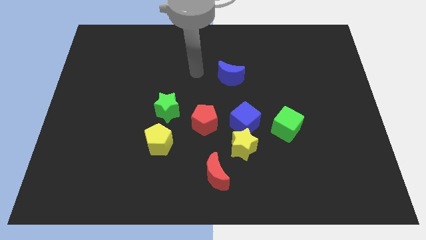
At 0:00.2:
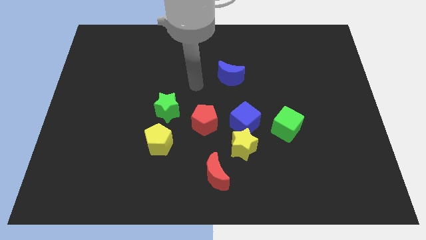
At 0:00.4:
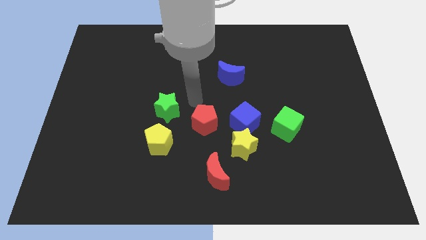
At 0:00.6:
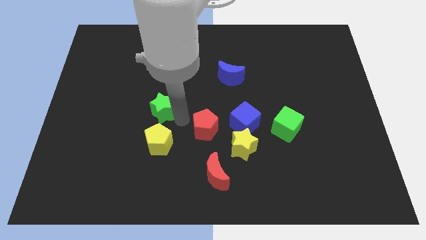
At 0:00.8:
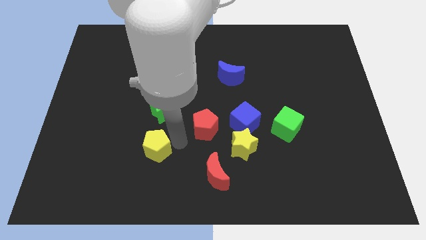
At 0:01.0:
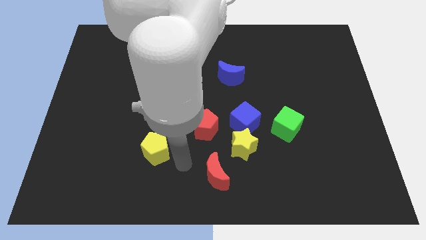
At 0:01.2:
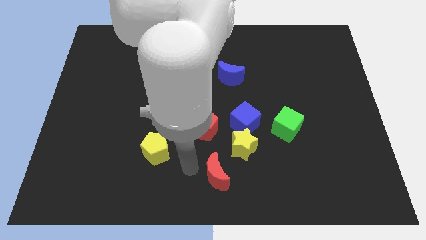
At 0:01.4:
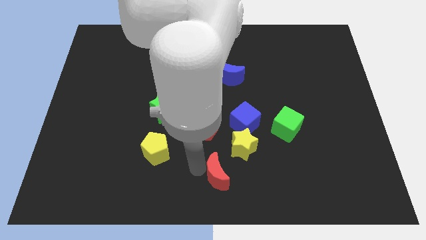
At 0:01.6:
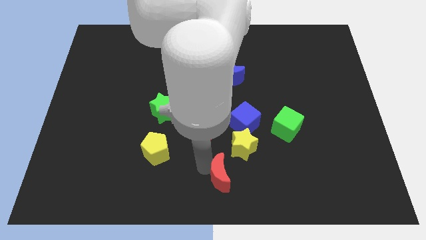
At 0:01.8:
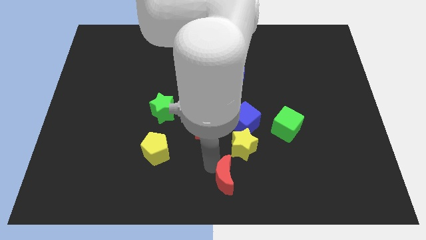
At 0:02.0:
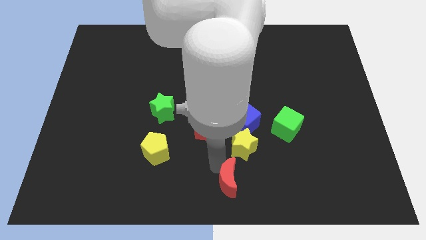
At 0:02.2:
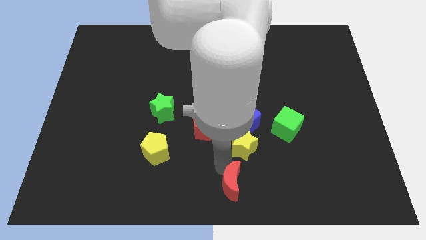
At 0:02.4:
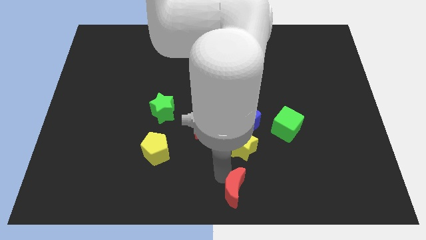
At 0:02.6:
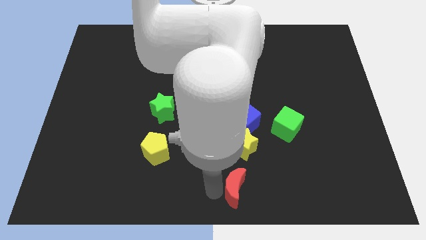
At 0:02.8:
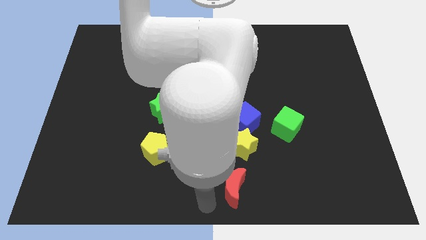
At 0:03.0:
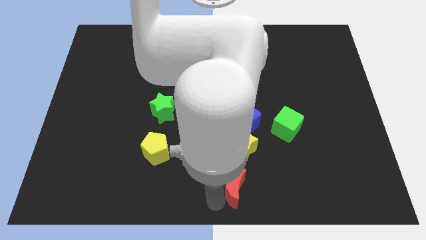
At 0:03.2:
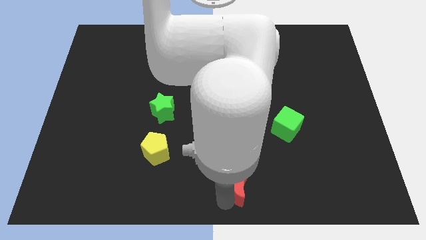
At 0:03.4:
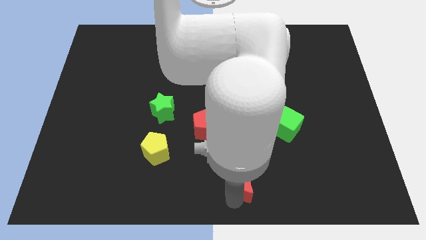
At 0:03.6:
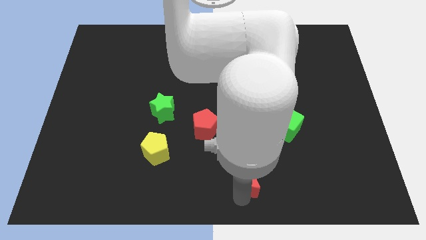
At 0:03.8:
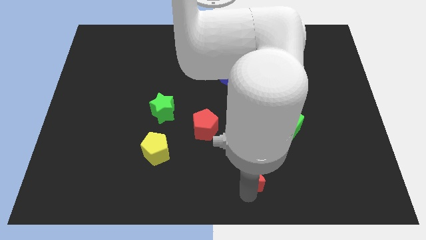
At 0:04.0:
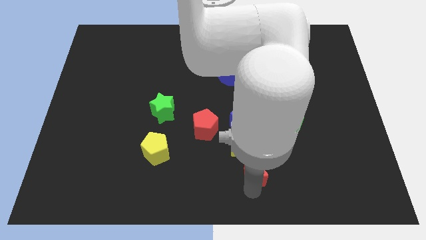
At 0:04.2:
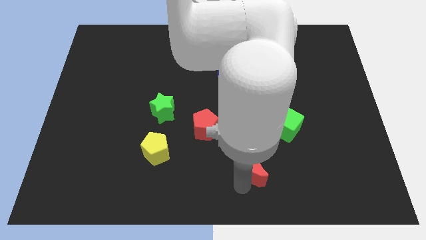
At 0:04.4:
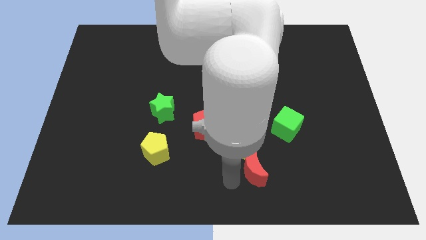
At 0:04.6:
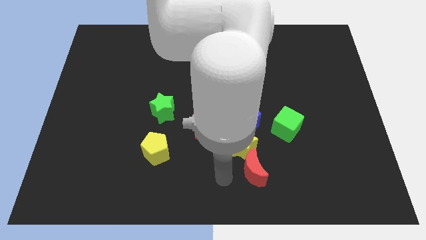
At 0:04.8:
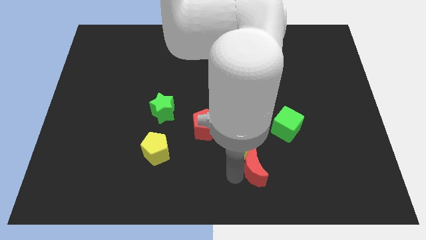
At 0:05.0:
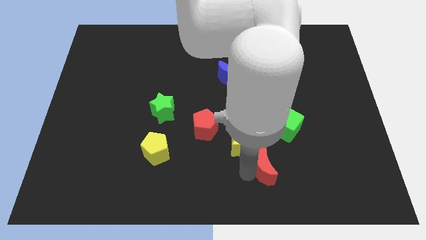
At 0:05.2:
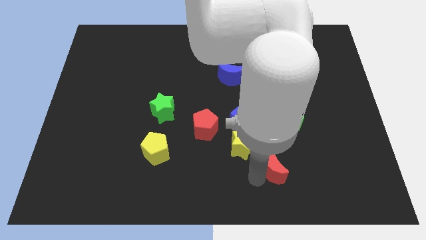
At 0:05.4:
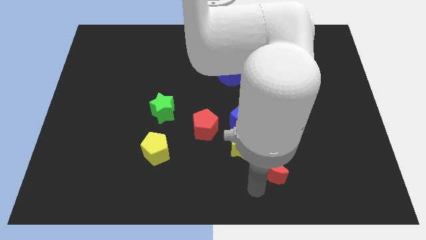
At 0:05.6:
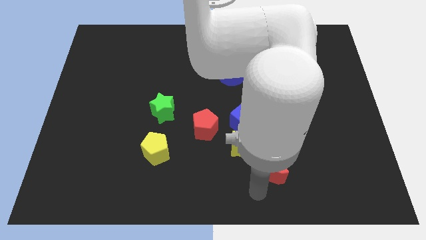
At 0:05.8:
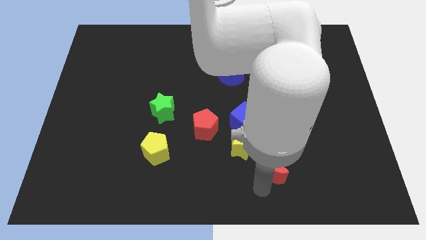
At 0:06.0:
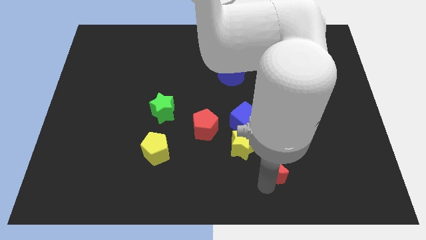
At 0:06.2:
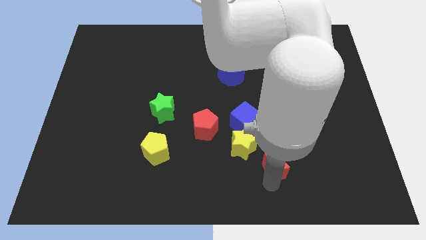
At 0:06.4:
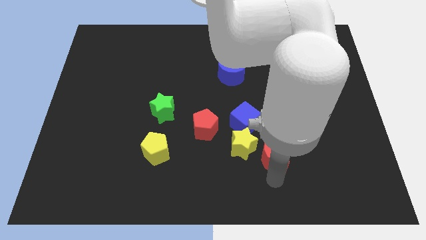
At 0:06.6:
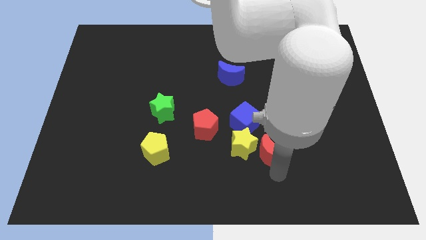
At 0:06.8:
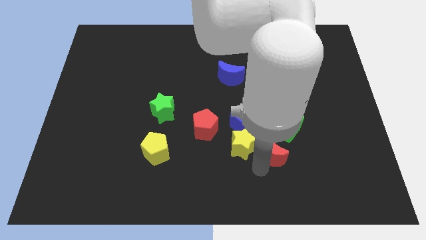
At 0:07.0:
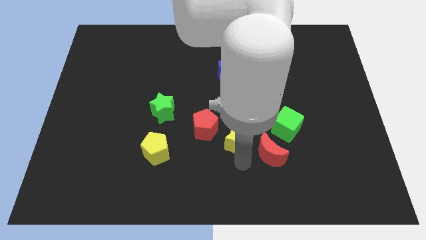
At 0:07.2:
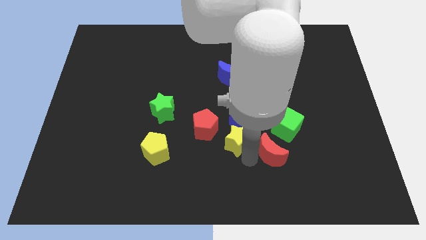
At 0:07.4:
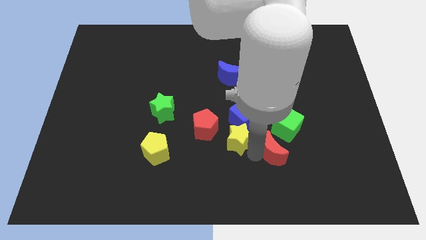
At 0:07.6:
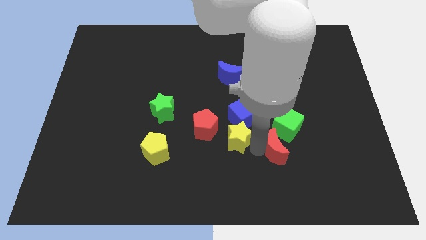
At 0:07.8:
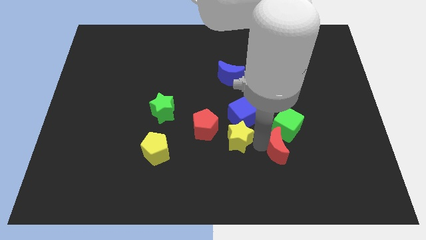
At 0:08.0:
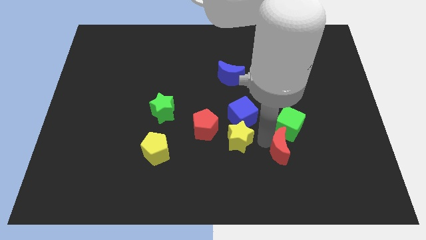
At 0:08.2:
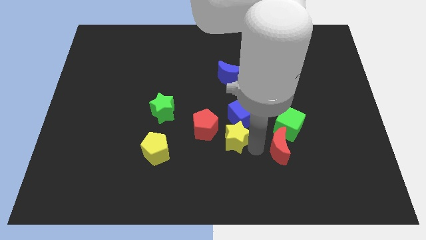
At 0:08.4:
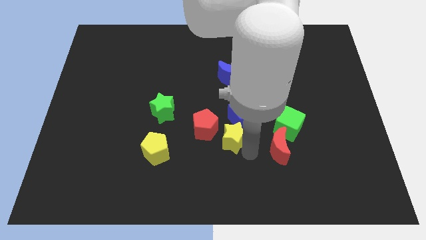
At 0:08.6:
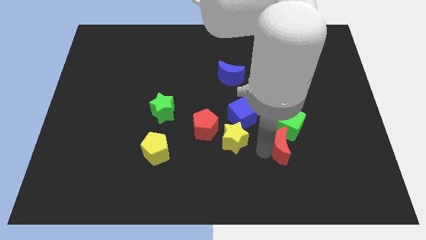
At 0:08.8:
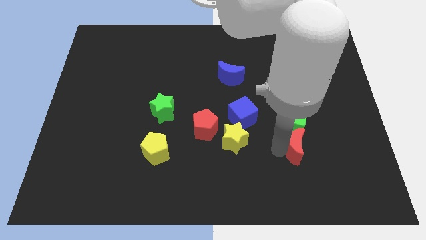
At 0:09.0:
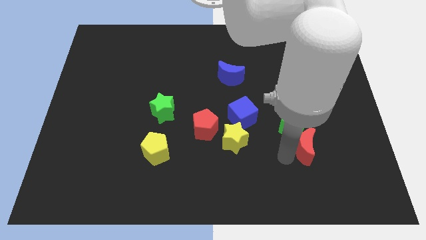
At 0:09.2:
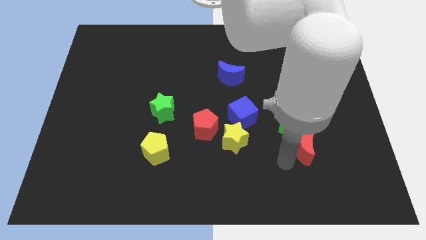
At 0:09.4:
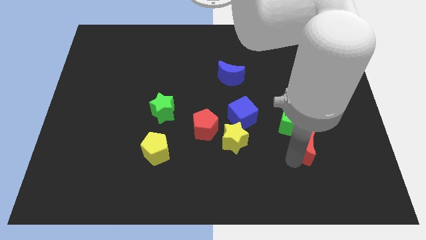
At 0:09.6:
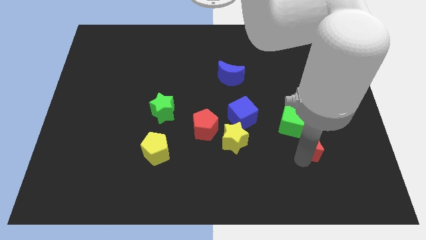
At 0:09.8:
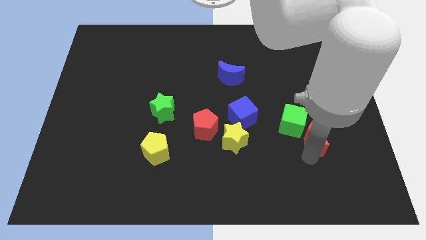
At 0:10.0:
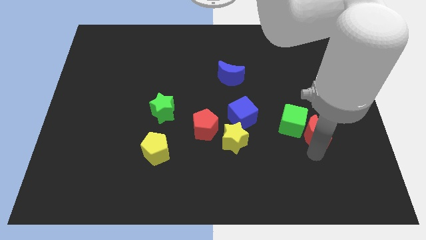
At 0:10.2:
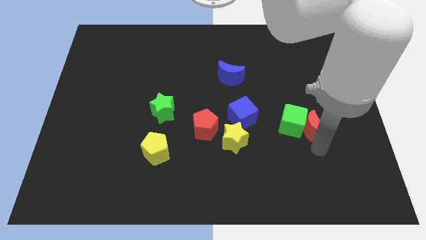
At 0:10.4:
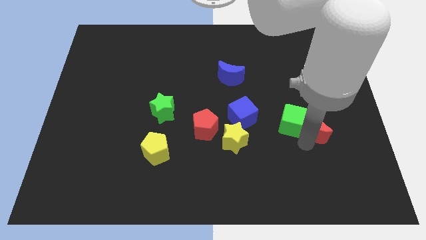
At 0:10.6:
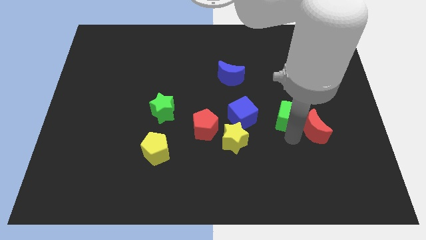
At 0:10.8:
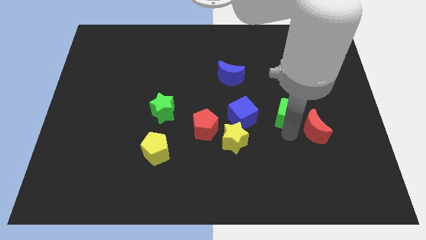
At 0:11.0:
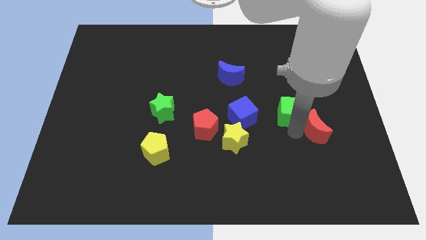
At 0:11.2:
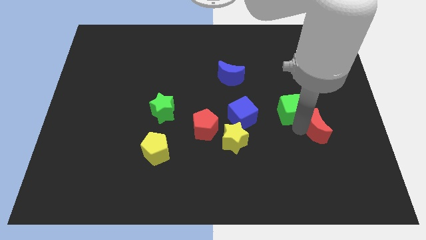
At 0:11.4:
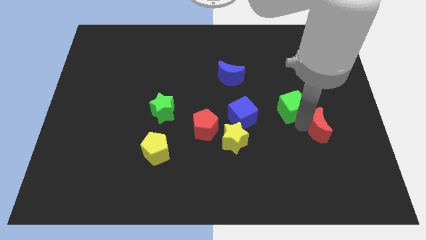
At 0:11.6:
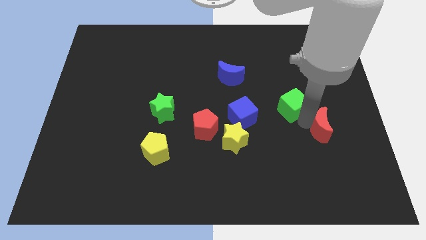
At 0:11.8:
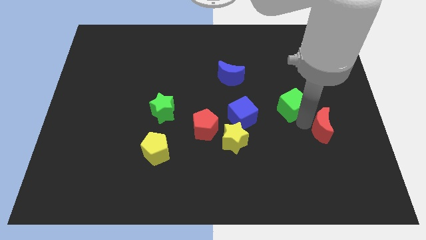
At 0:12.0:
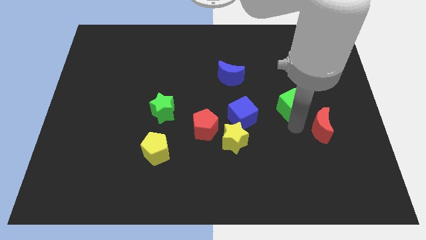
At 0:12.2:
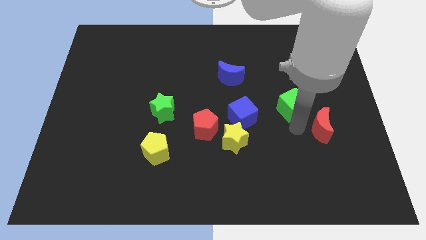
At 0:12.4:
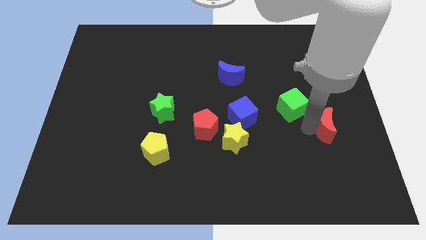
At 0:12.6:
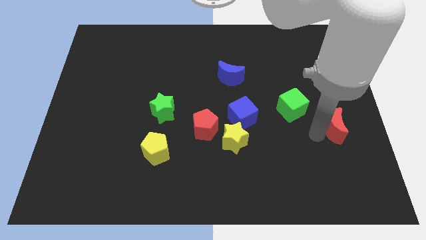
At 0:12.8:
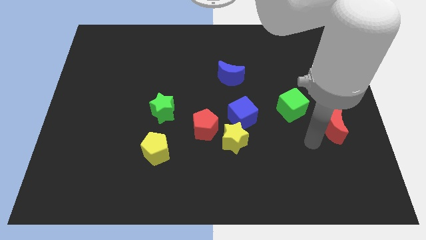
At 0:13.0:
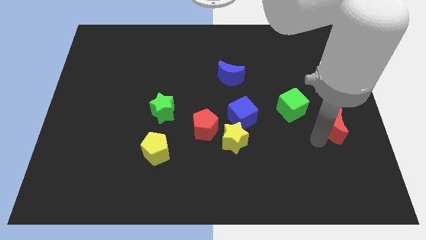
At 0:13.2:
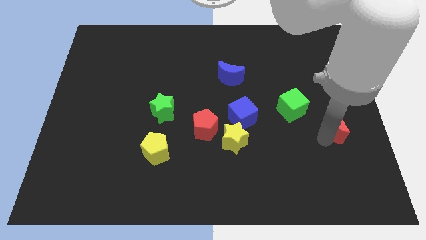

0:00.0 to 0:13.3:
put the red moon to the center right
